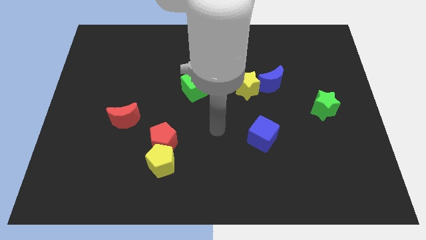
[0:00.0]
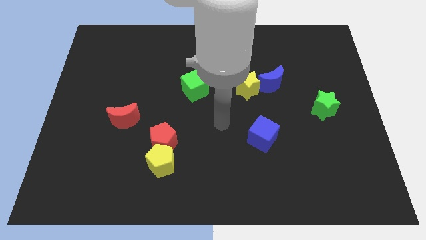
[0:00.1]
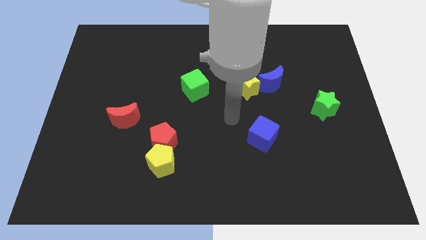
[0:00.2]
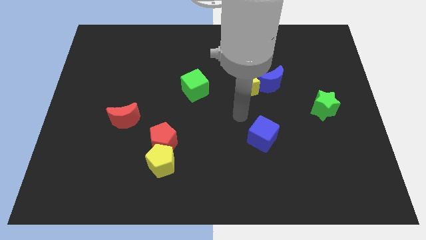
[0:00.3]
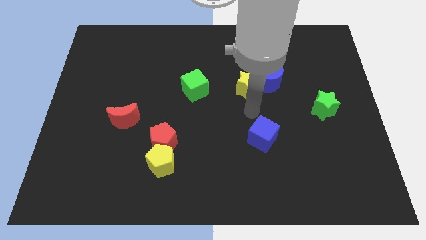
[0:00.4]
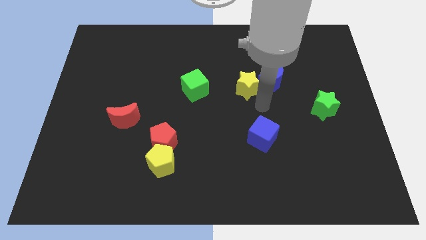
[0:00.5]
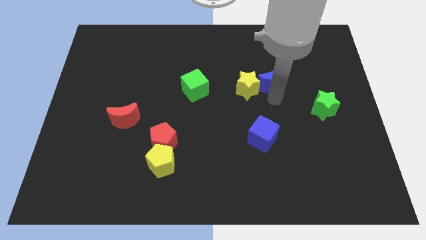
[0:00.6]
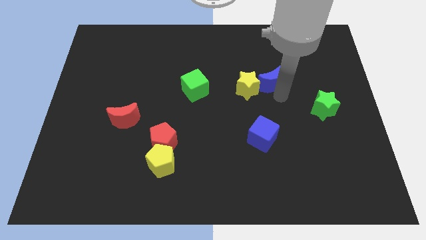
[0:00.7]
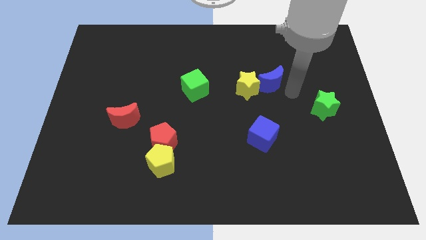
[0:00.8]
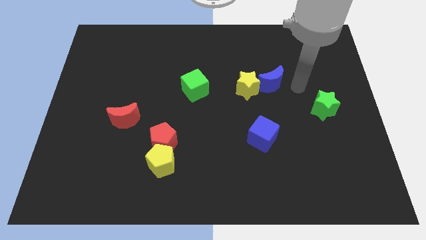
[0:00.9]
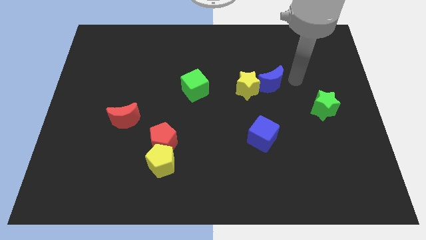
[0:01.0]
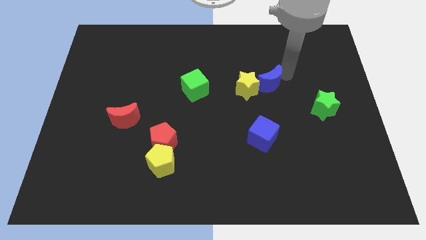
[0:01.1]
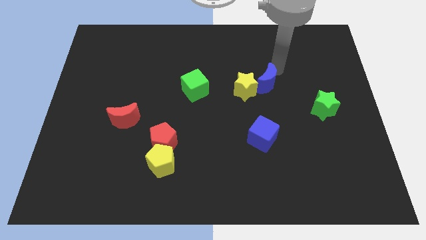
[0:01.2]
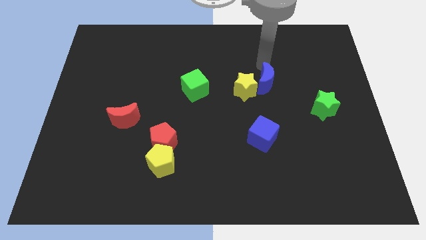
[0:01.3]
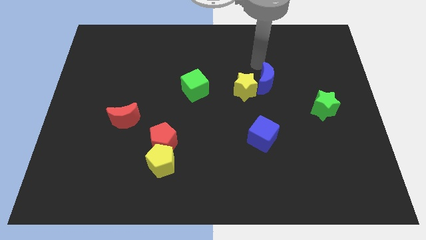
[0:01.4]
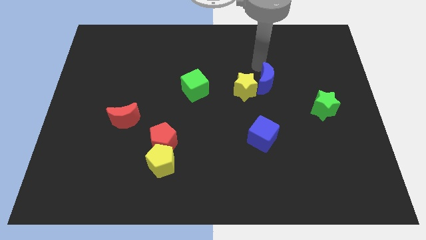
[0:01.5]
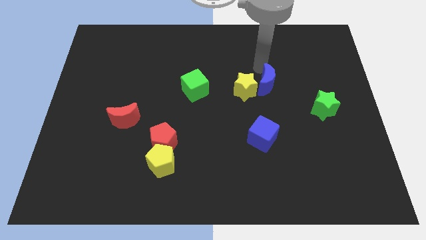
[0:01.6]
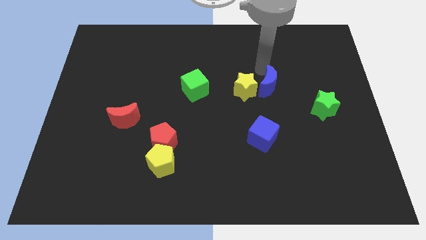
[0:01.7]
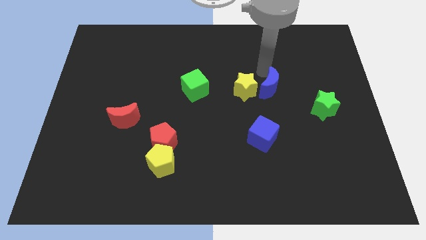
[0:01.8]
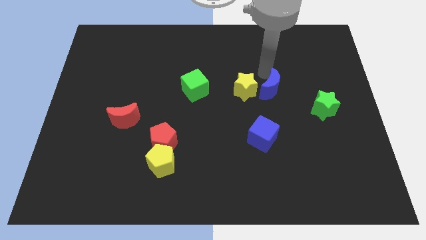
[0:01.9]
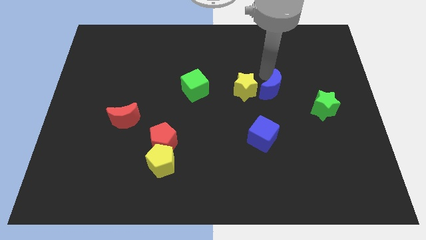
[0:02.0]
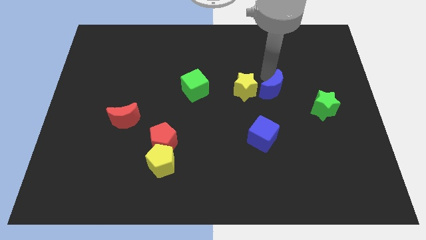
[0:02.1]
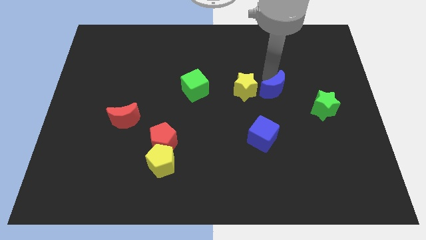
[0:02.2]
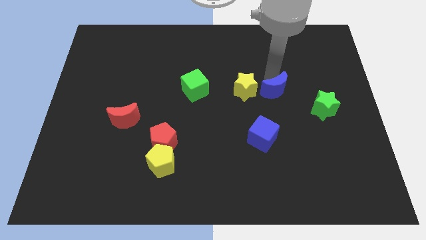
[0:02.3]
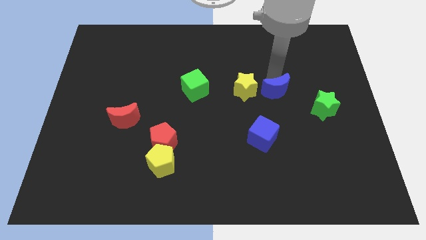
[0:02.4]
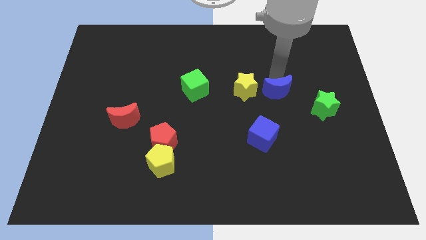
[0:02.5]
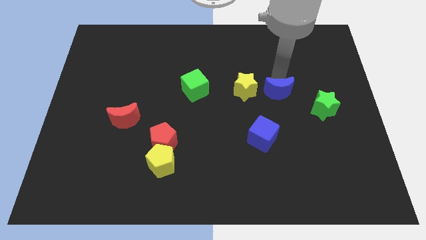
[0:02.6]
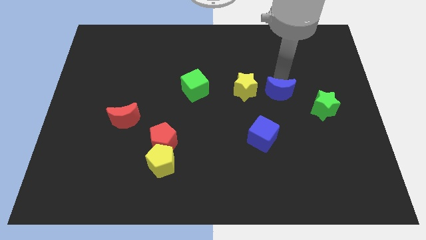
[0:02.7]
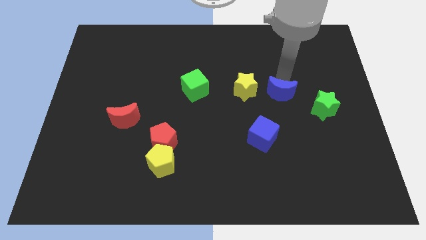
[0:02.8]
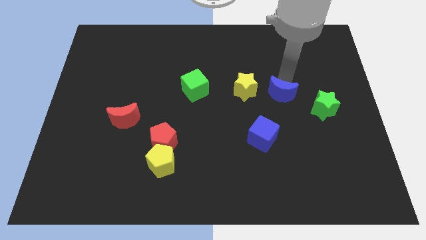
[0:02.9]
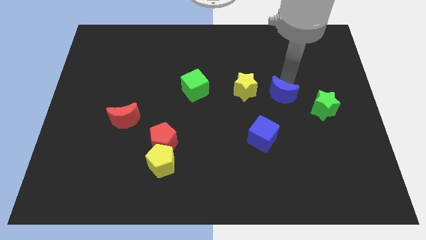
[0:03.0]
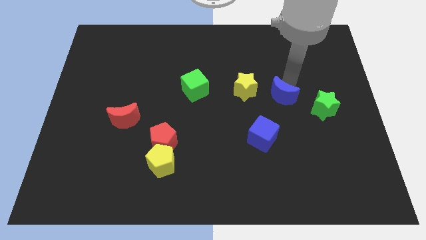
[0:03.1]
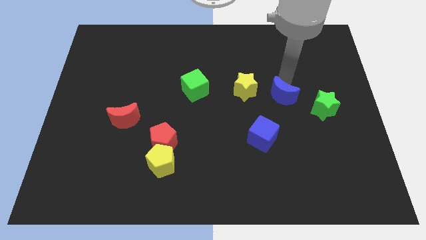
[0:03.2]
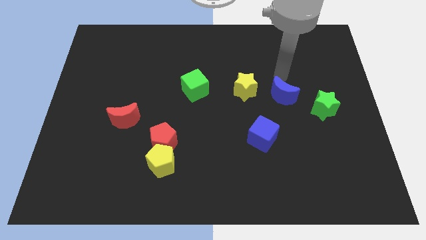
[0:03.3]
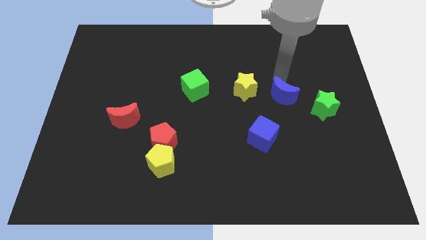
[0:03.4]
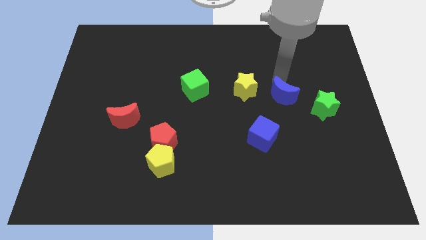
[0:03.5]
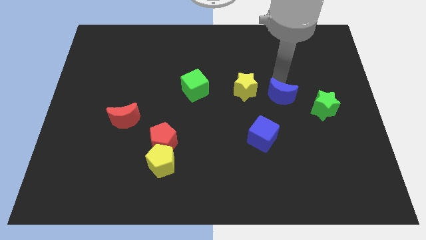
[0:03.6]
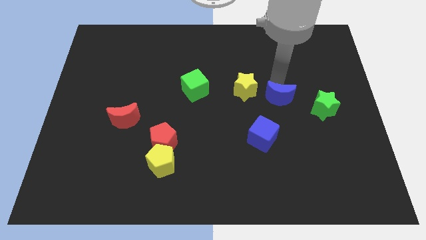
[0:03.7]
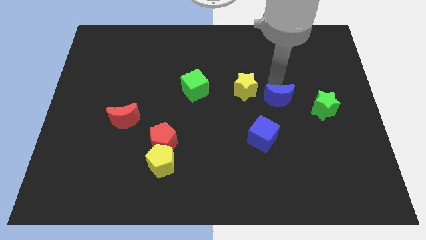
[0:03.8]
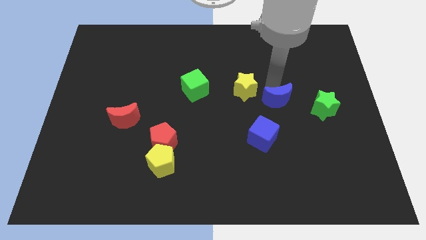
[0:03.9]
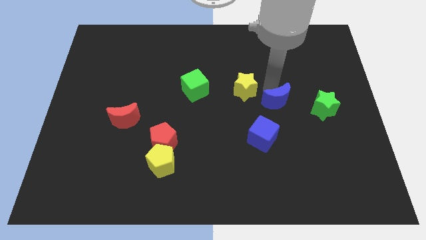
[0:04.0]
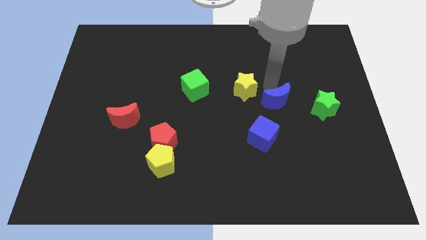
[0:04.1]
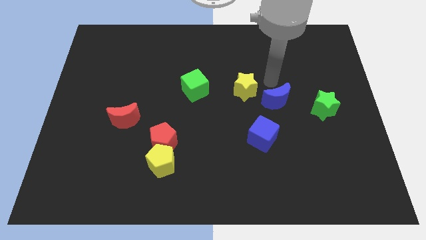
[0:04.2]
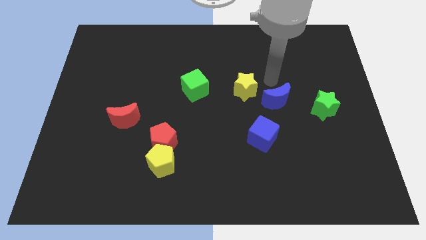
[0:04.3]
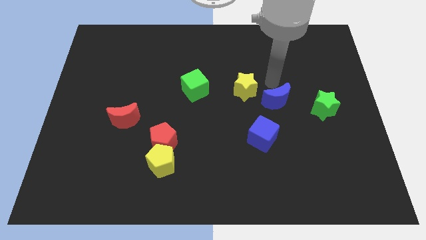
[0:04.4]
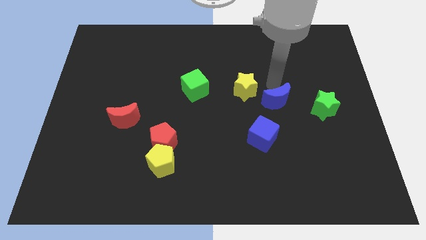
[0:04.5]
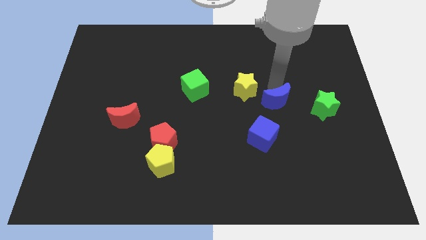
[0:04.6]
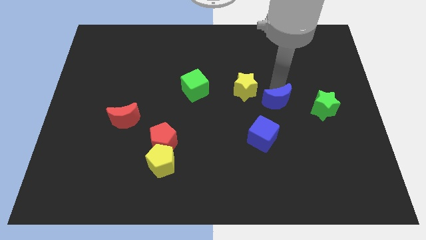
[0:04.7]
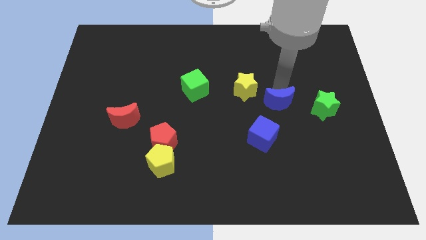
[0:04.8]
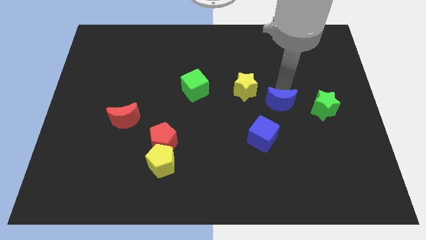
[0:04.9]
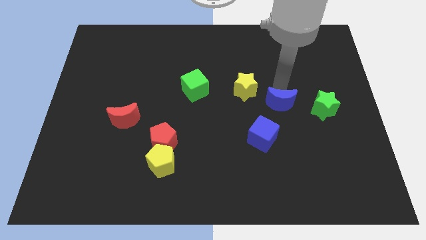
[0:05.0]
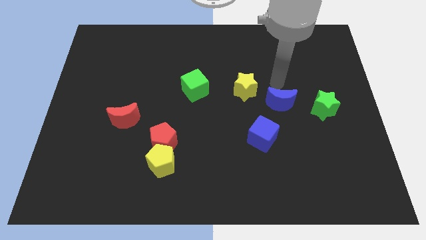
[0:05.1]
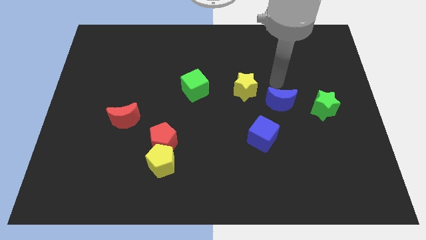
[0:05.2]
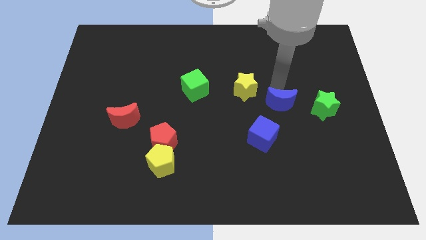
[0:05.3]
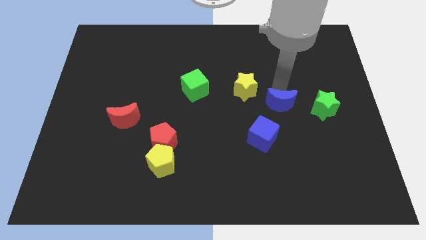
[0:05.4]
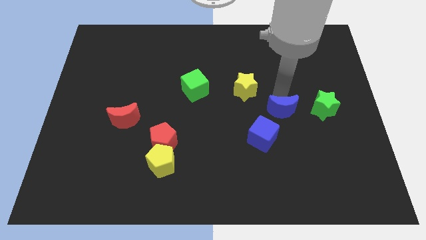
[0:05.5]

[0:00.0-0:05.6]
slightly push the blue moon downwards

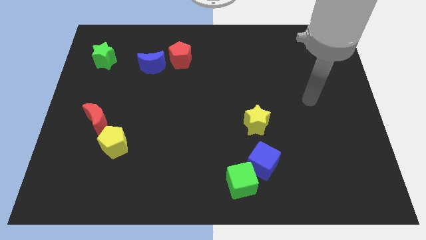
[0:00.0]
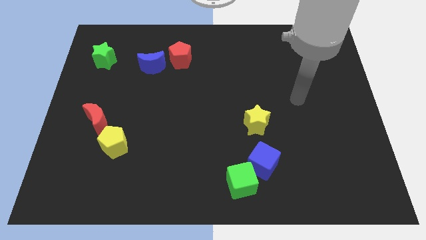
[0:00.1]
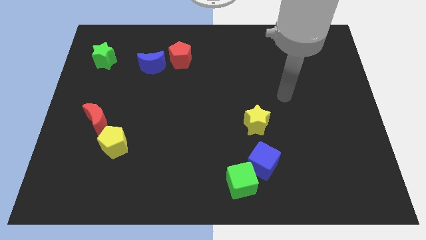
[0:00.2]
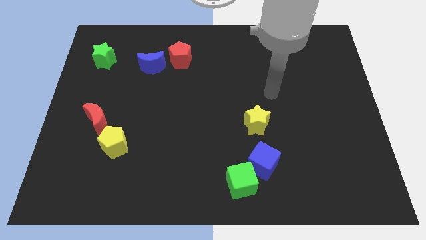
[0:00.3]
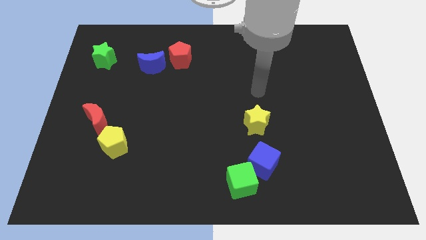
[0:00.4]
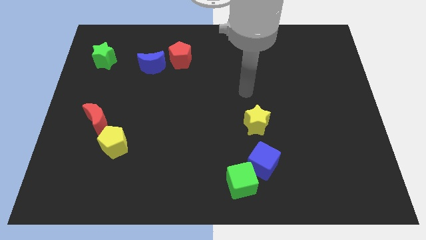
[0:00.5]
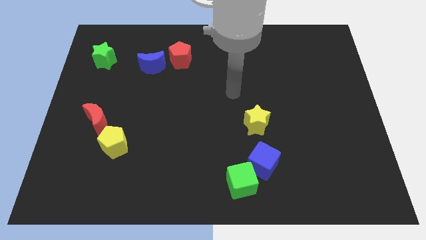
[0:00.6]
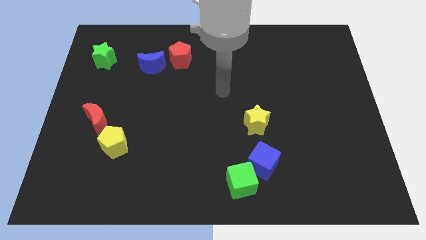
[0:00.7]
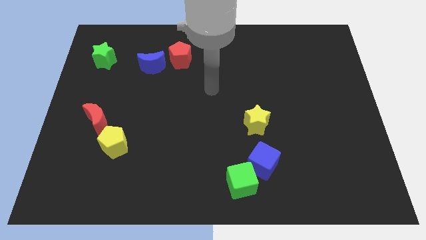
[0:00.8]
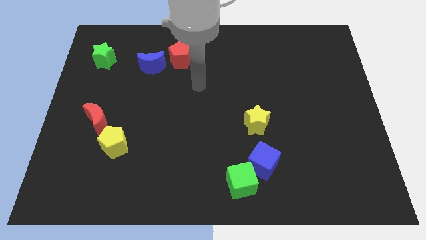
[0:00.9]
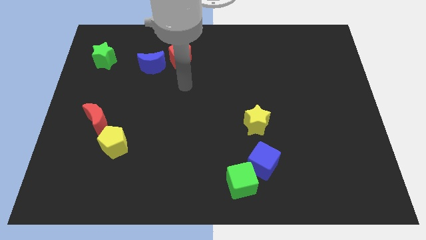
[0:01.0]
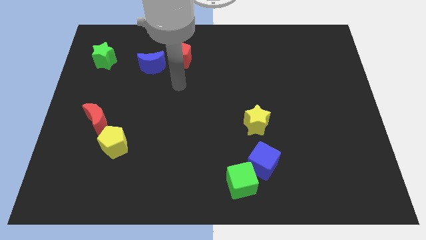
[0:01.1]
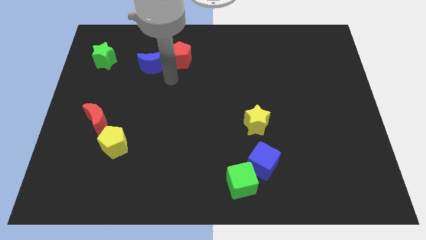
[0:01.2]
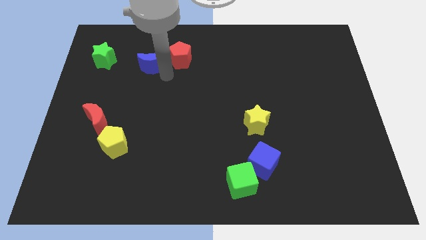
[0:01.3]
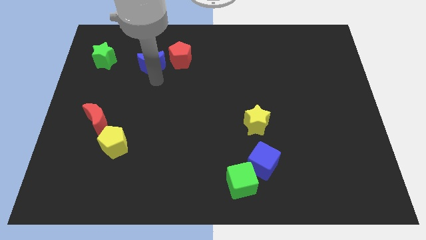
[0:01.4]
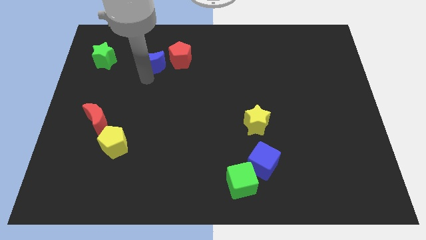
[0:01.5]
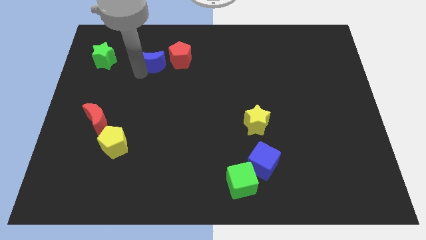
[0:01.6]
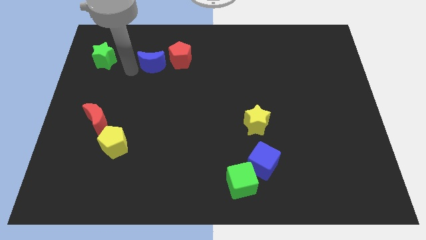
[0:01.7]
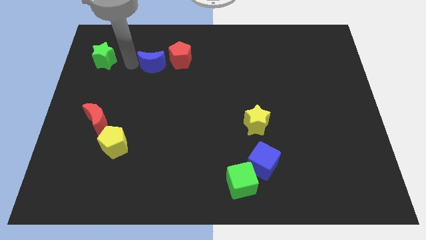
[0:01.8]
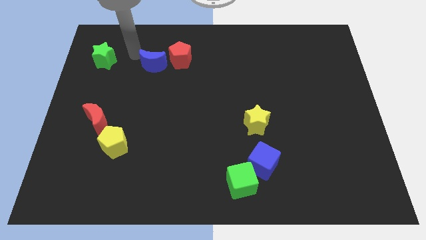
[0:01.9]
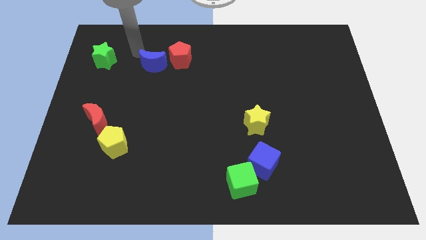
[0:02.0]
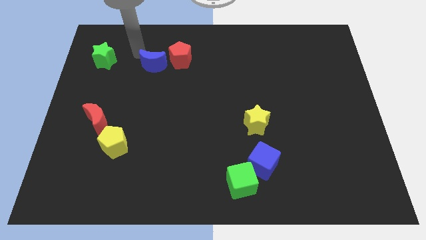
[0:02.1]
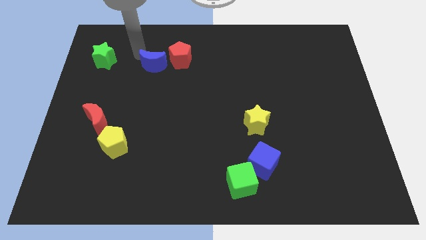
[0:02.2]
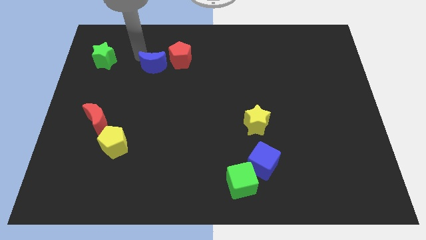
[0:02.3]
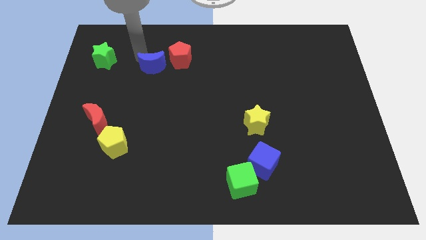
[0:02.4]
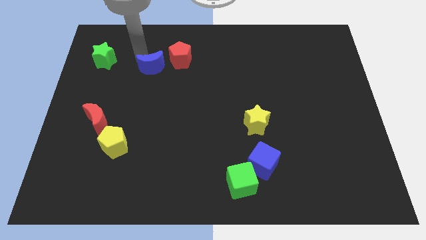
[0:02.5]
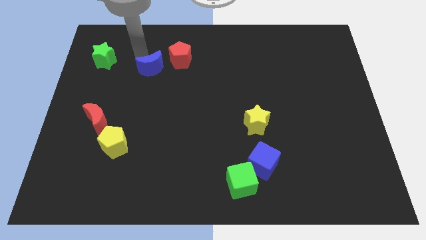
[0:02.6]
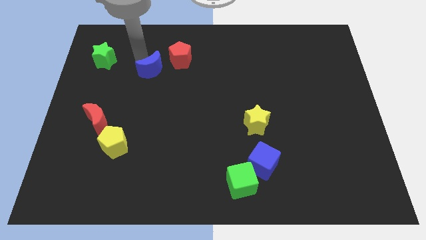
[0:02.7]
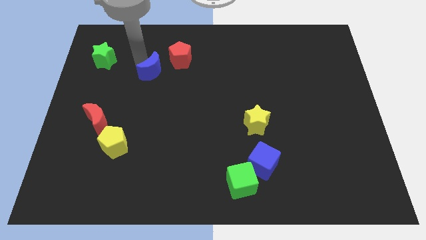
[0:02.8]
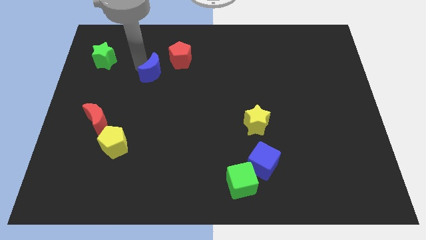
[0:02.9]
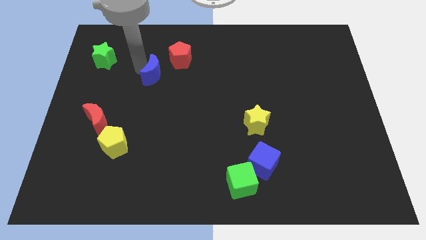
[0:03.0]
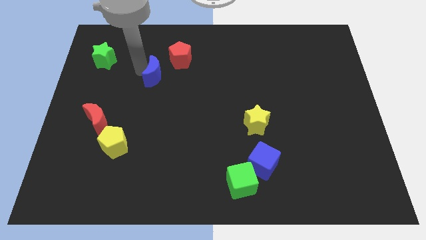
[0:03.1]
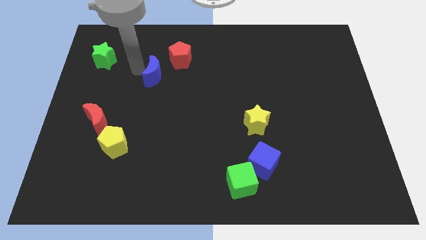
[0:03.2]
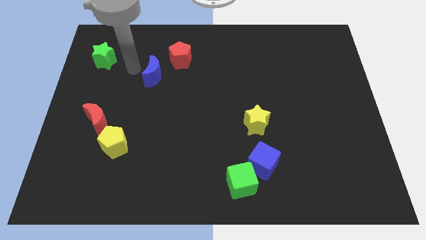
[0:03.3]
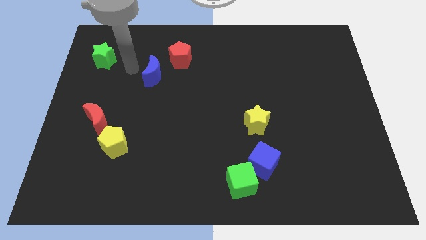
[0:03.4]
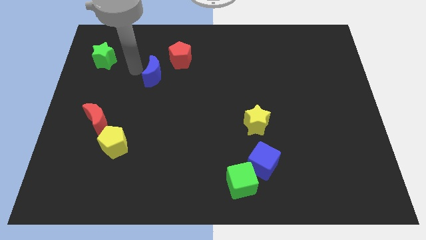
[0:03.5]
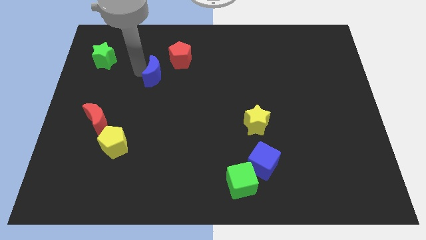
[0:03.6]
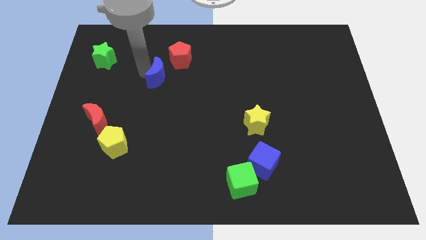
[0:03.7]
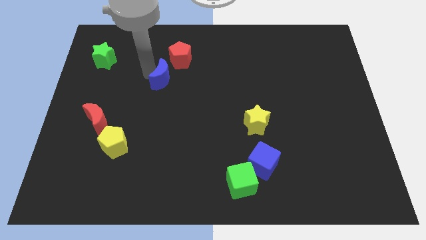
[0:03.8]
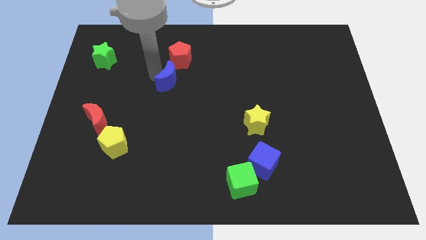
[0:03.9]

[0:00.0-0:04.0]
move the blue moon downwards and then to the right a little
